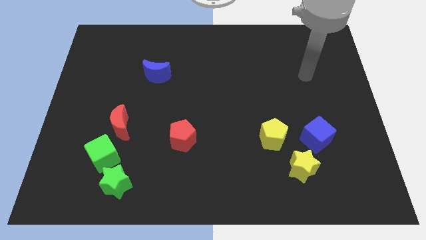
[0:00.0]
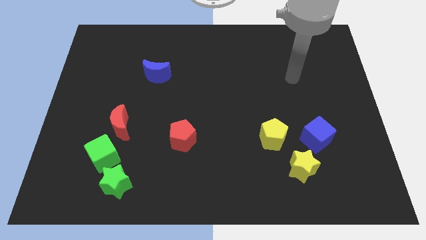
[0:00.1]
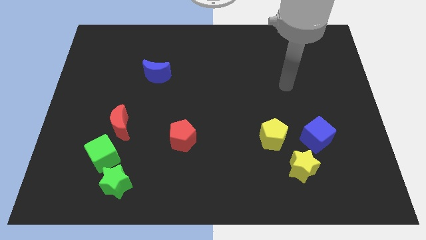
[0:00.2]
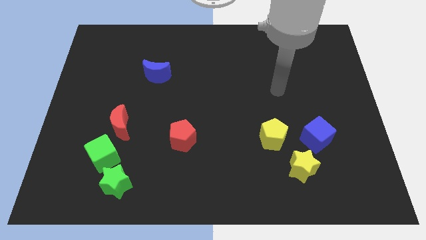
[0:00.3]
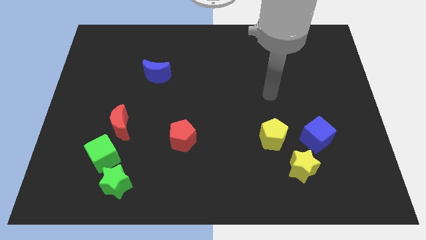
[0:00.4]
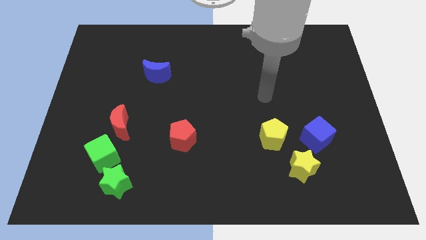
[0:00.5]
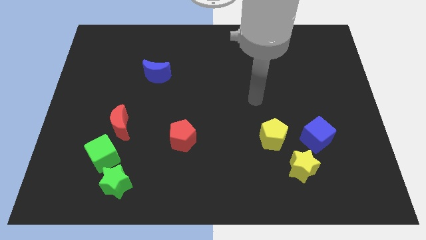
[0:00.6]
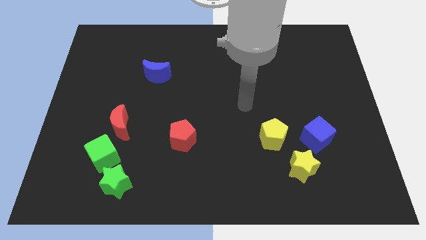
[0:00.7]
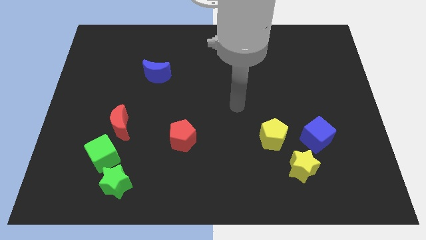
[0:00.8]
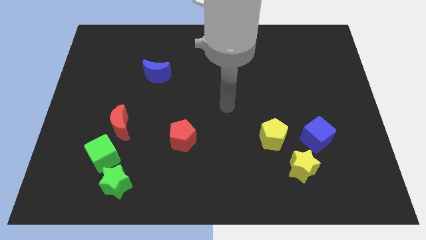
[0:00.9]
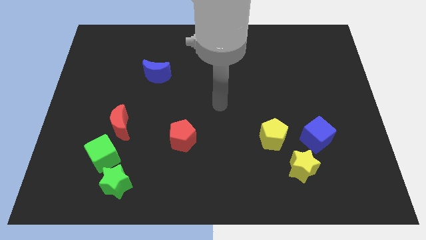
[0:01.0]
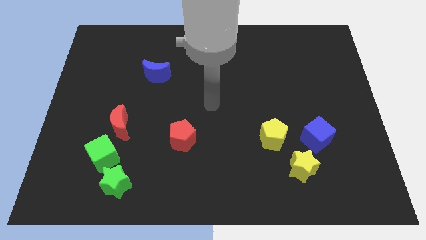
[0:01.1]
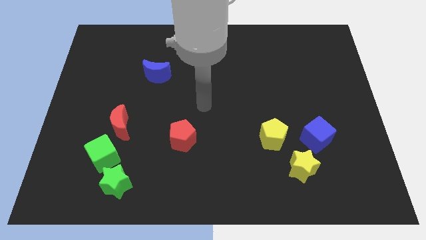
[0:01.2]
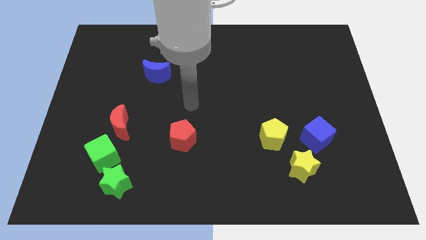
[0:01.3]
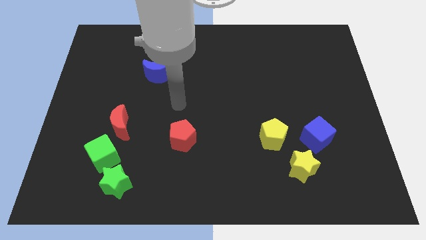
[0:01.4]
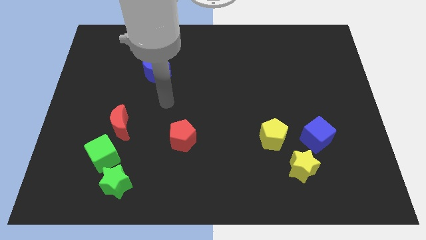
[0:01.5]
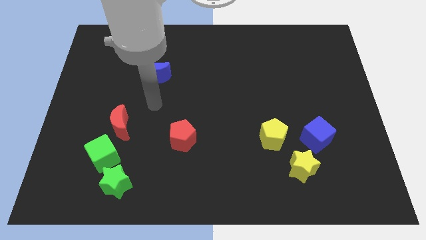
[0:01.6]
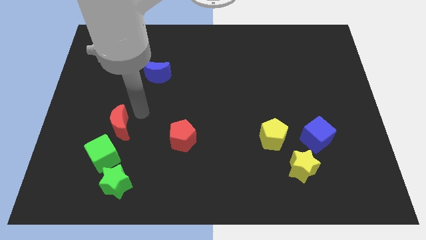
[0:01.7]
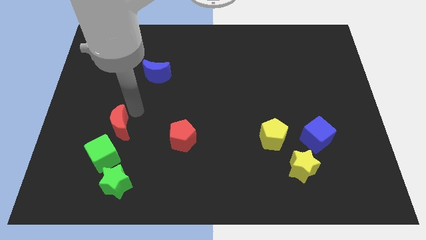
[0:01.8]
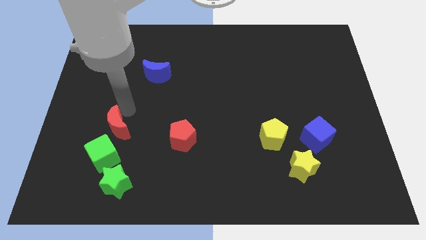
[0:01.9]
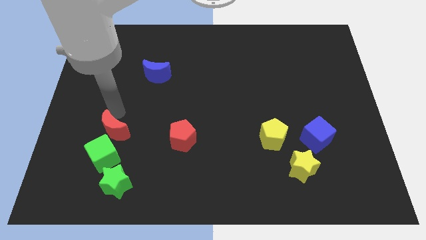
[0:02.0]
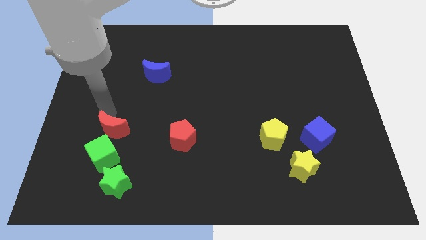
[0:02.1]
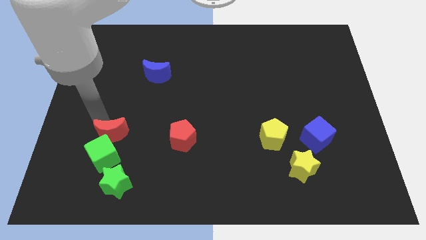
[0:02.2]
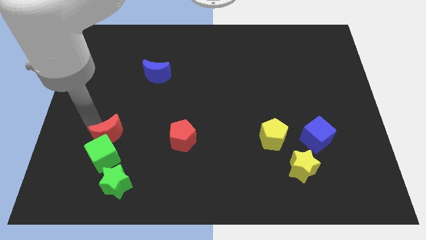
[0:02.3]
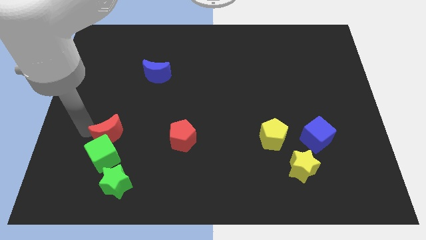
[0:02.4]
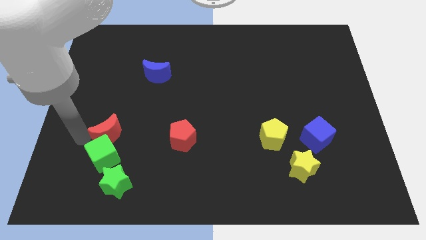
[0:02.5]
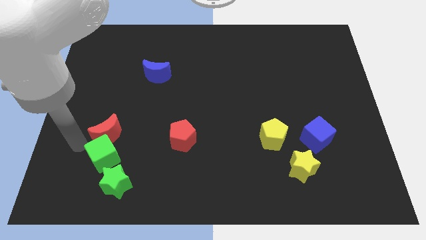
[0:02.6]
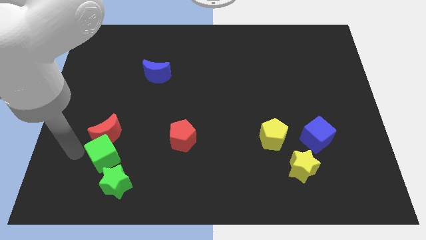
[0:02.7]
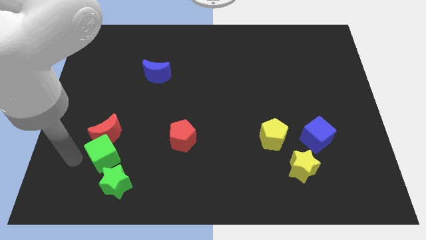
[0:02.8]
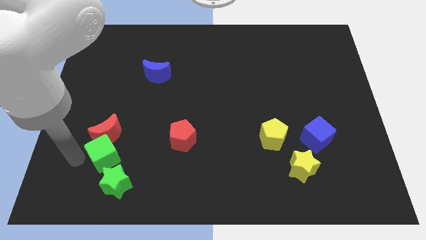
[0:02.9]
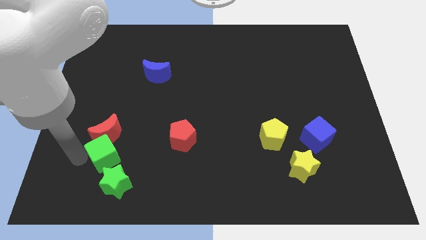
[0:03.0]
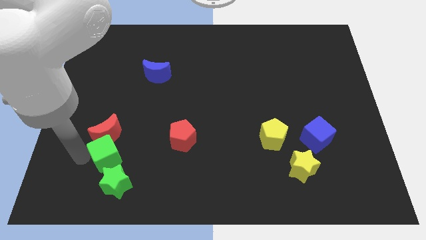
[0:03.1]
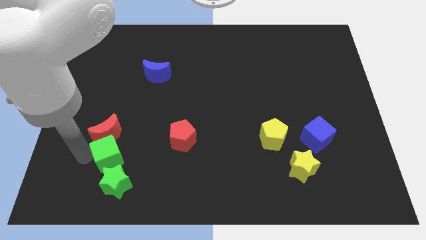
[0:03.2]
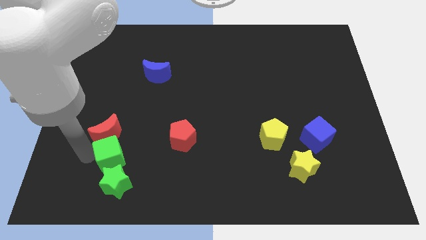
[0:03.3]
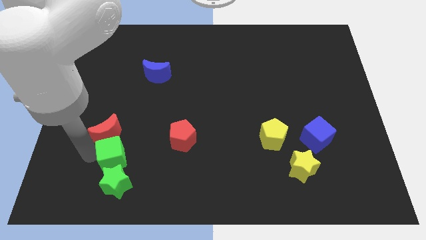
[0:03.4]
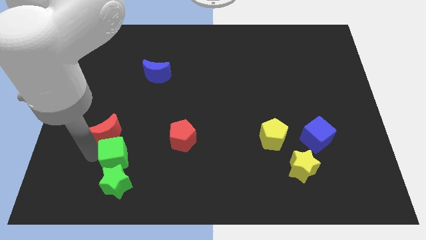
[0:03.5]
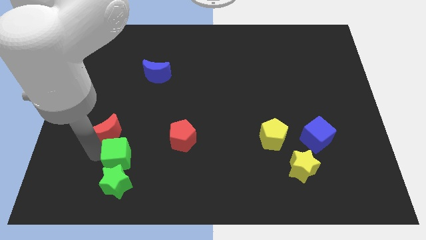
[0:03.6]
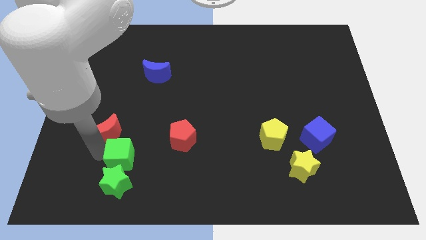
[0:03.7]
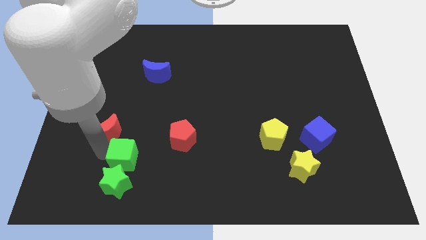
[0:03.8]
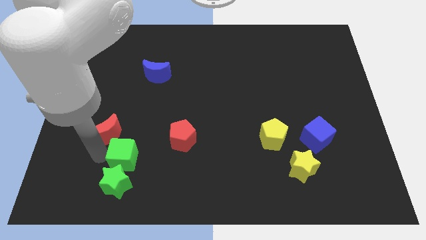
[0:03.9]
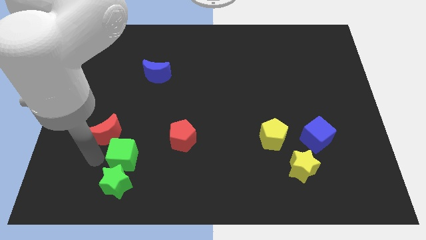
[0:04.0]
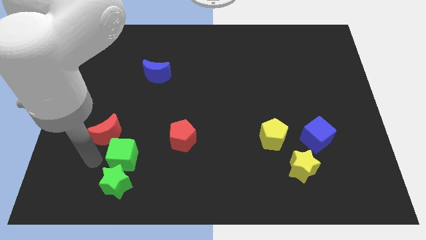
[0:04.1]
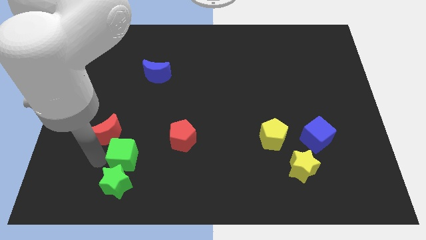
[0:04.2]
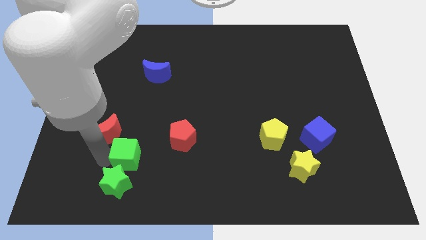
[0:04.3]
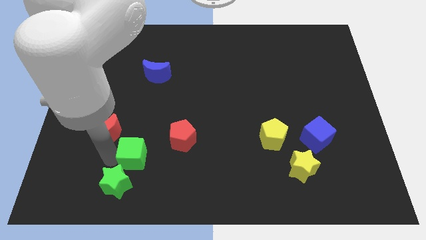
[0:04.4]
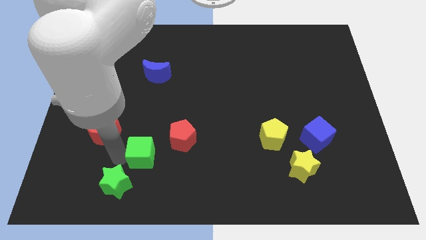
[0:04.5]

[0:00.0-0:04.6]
move the green cube to the right a little bit

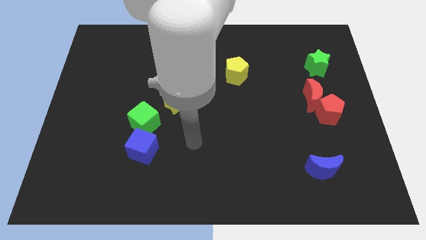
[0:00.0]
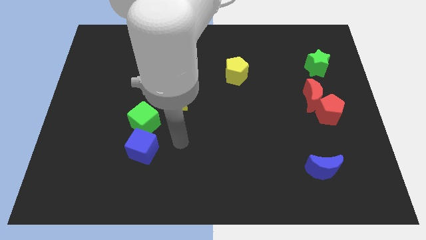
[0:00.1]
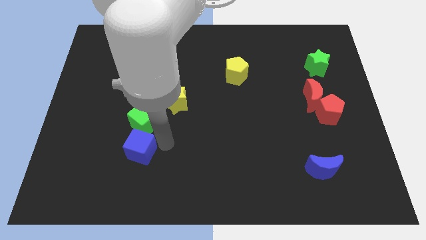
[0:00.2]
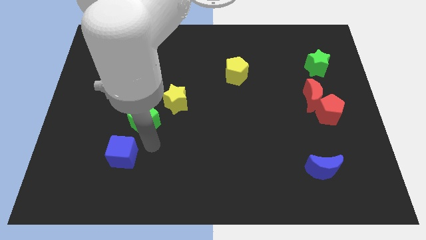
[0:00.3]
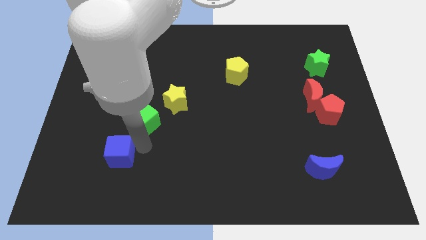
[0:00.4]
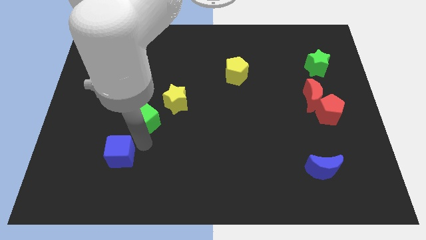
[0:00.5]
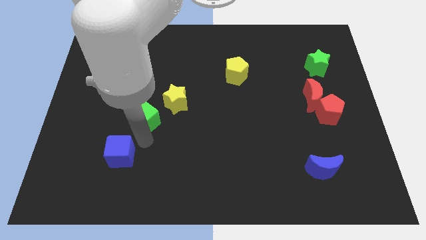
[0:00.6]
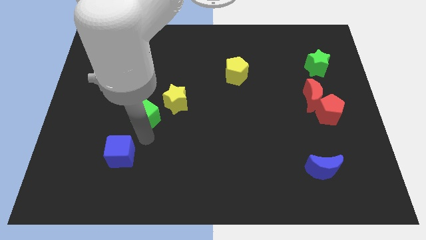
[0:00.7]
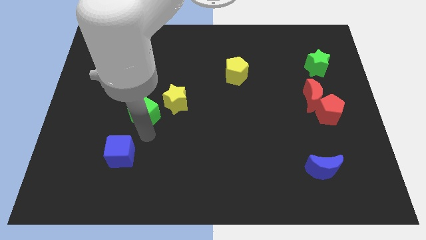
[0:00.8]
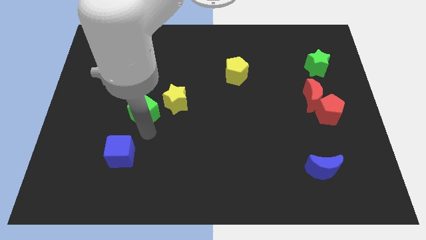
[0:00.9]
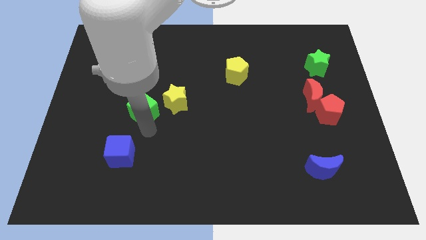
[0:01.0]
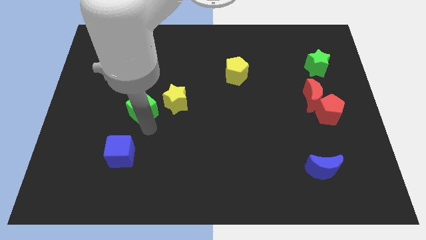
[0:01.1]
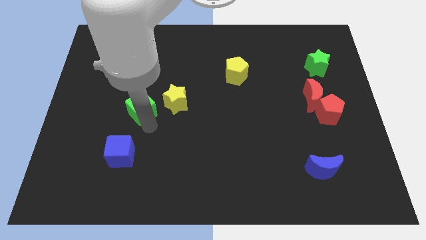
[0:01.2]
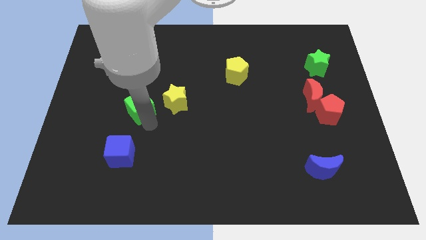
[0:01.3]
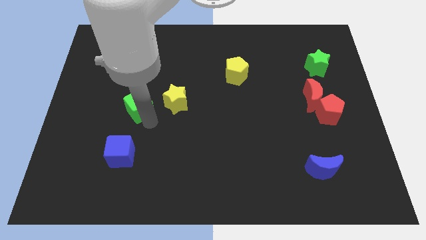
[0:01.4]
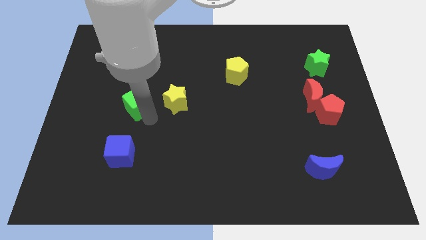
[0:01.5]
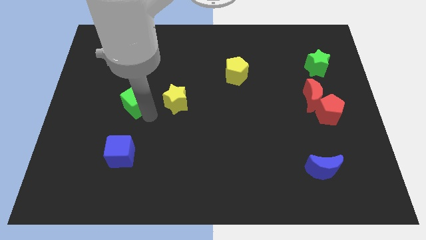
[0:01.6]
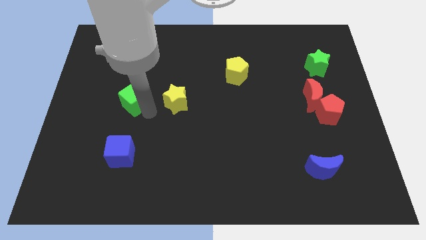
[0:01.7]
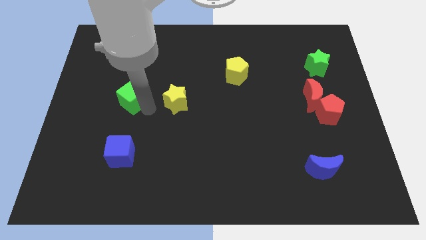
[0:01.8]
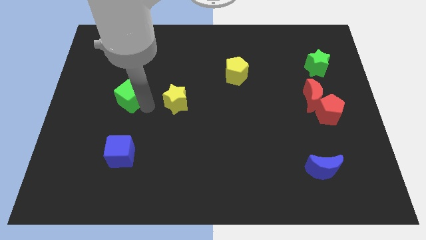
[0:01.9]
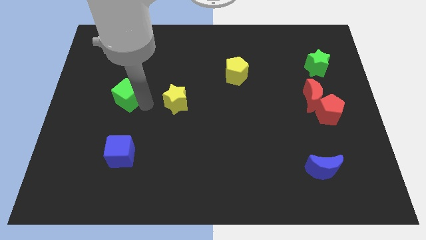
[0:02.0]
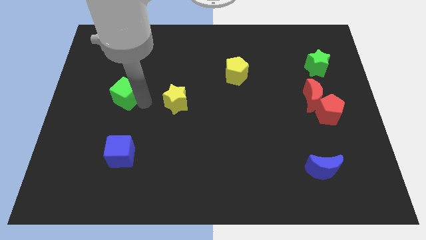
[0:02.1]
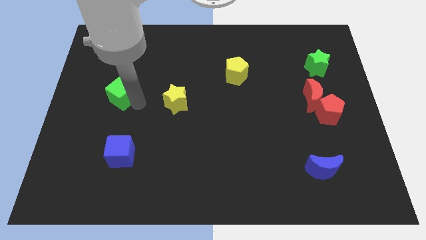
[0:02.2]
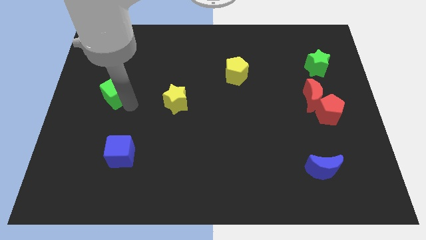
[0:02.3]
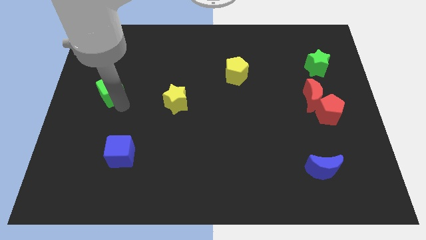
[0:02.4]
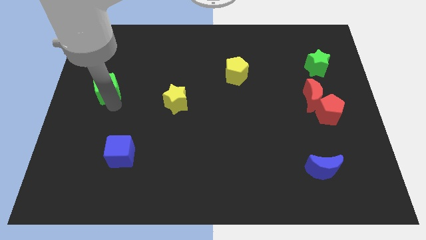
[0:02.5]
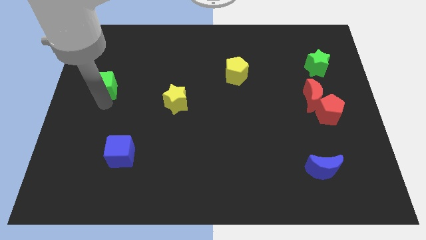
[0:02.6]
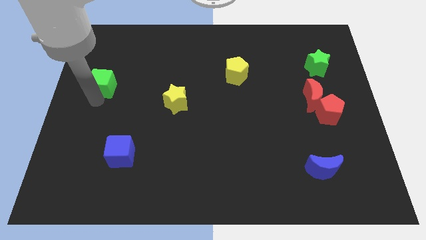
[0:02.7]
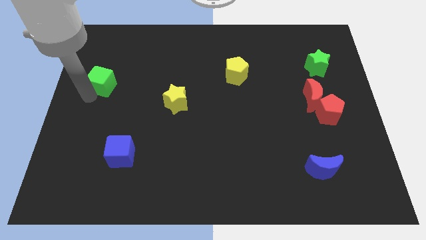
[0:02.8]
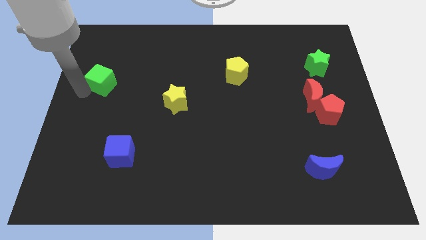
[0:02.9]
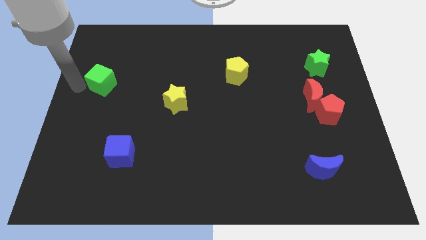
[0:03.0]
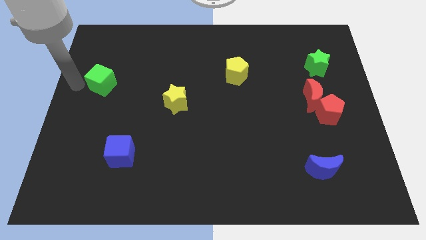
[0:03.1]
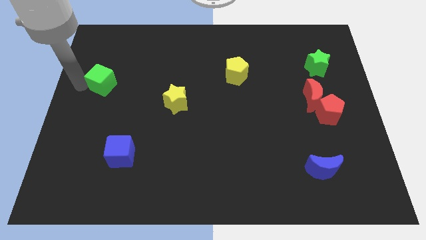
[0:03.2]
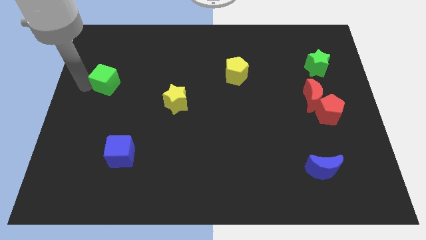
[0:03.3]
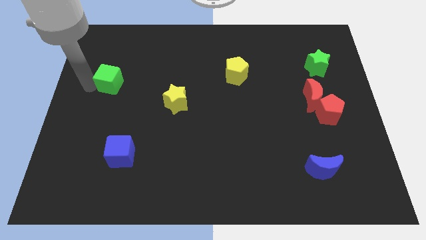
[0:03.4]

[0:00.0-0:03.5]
slightly slide the green cube up

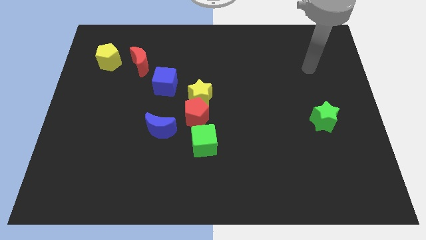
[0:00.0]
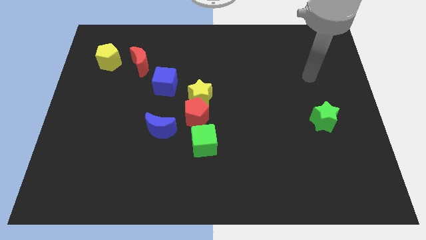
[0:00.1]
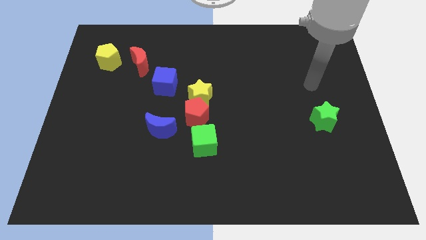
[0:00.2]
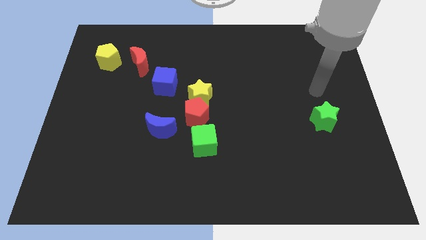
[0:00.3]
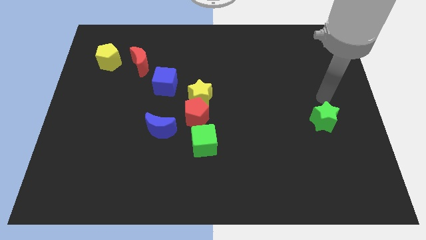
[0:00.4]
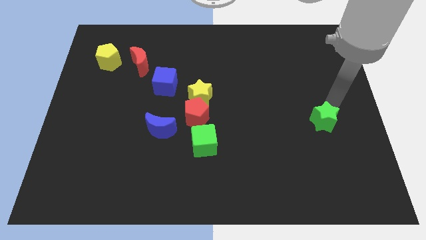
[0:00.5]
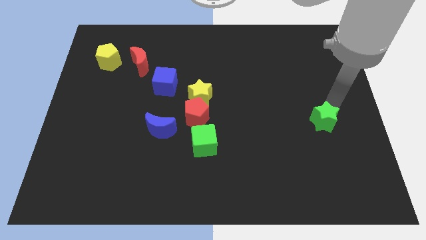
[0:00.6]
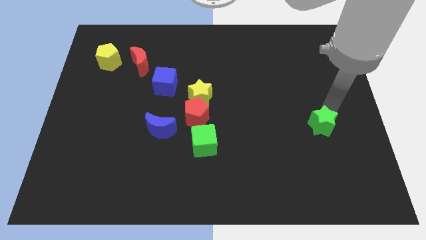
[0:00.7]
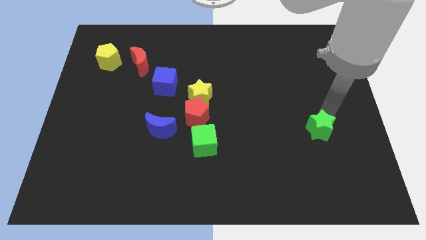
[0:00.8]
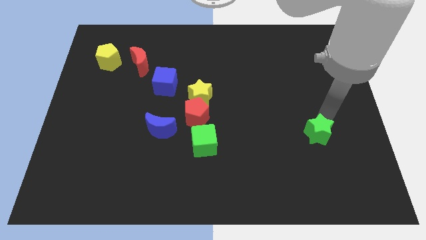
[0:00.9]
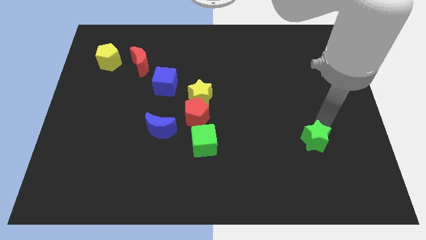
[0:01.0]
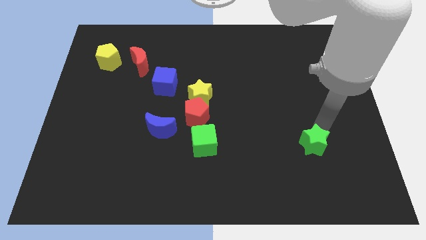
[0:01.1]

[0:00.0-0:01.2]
push the green star a little diagonally downwards and left
